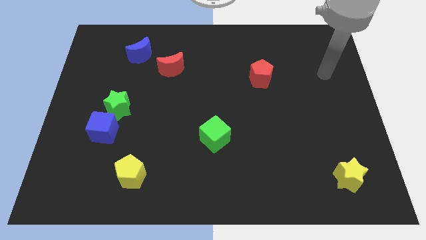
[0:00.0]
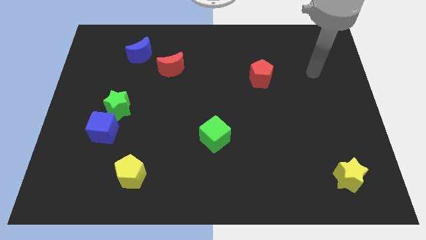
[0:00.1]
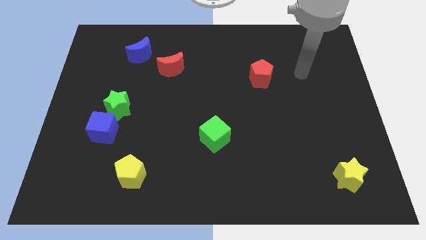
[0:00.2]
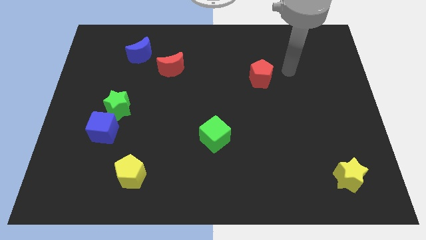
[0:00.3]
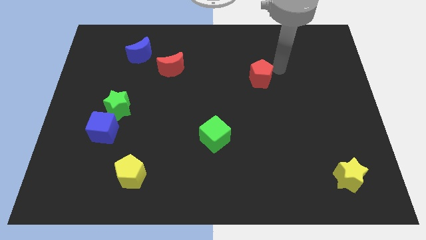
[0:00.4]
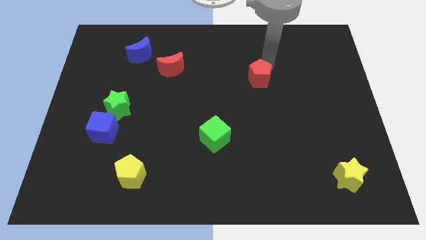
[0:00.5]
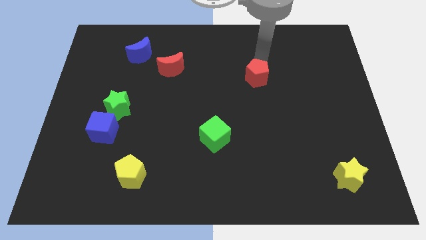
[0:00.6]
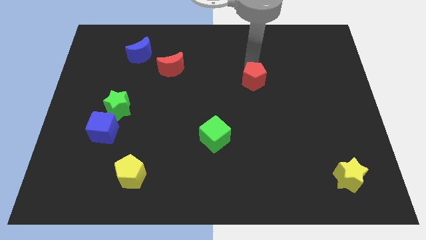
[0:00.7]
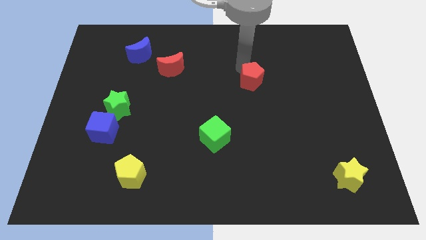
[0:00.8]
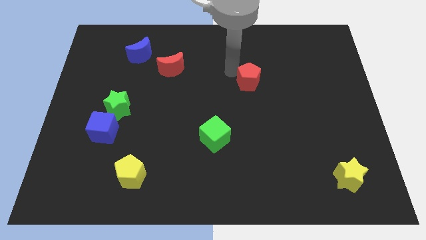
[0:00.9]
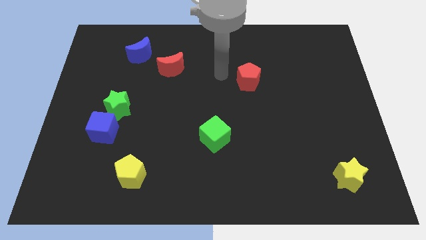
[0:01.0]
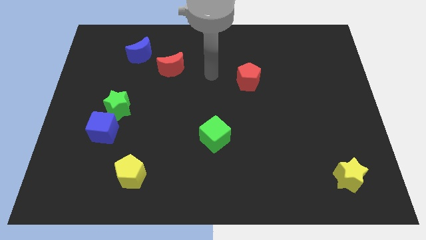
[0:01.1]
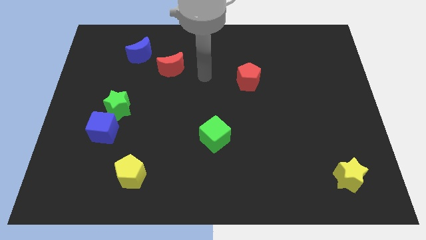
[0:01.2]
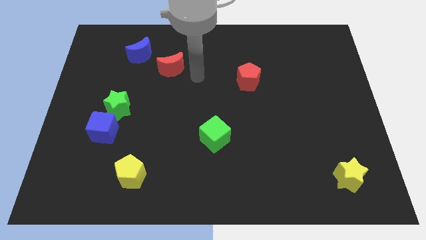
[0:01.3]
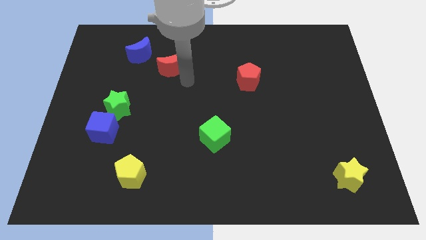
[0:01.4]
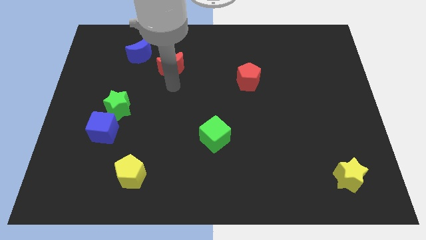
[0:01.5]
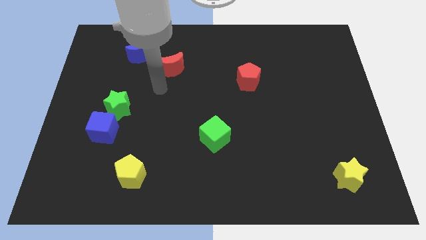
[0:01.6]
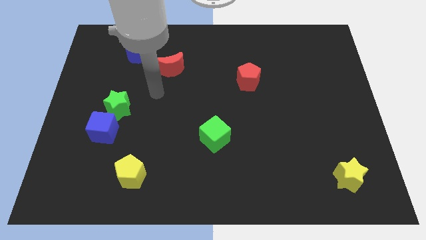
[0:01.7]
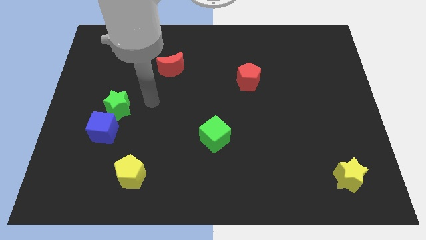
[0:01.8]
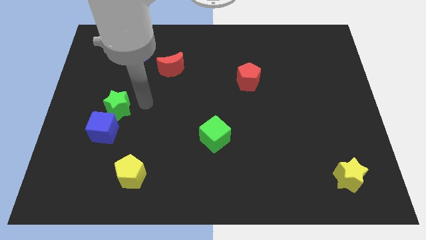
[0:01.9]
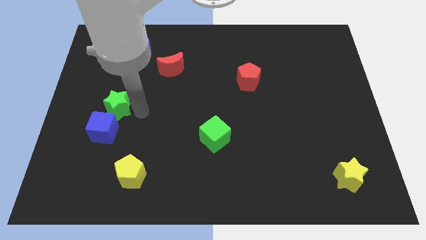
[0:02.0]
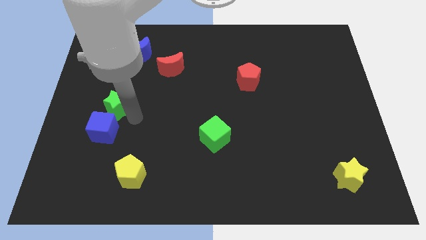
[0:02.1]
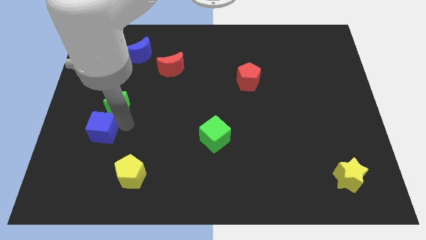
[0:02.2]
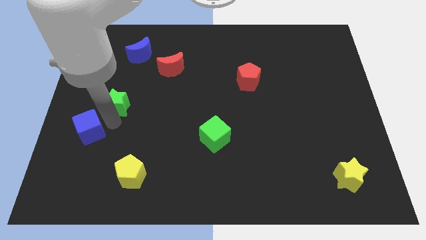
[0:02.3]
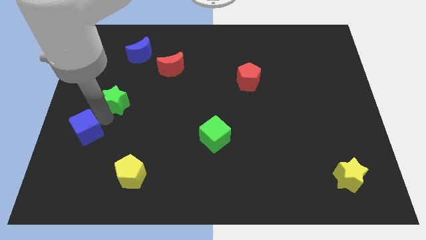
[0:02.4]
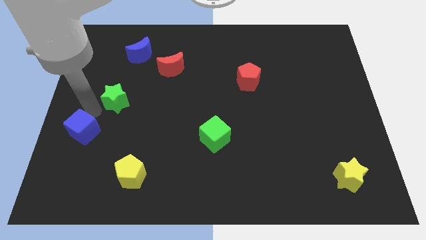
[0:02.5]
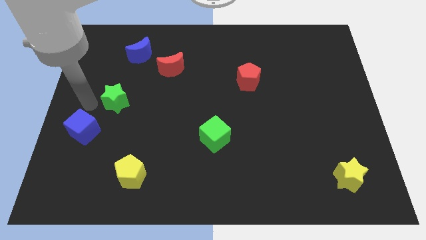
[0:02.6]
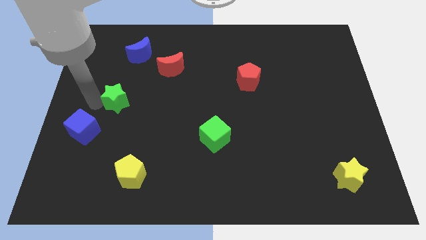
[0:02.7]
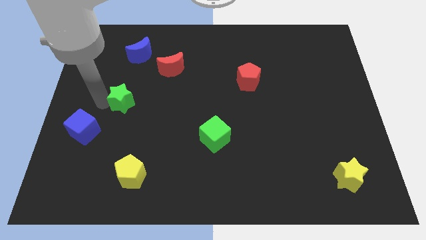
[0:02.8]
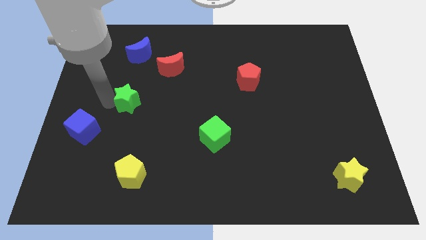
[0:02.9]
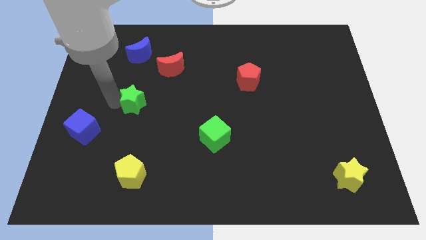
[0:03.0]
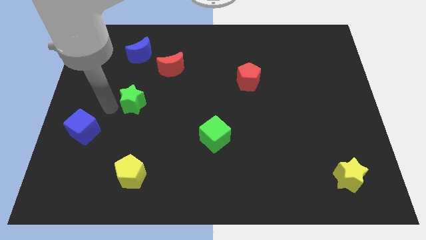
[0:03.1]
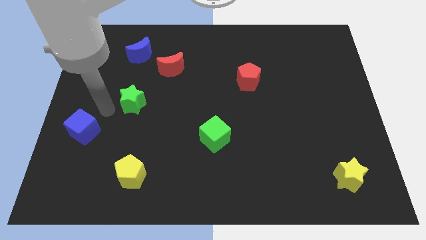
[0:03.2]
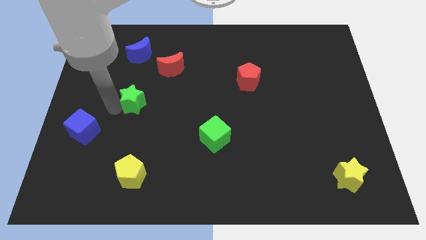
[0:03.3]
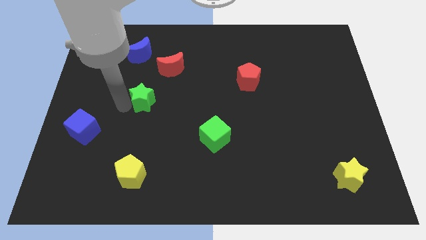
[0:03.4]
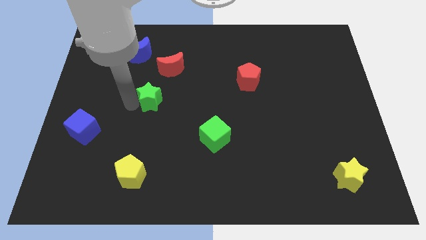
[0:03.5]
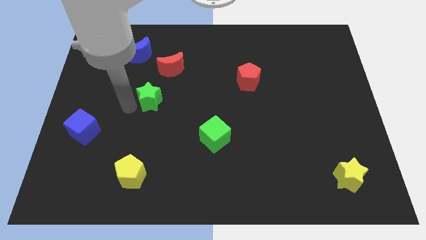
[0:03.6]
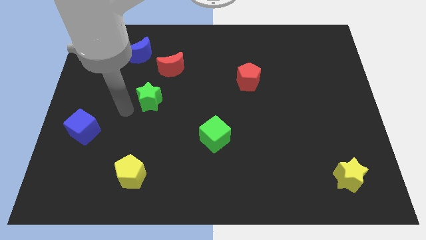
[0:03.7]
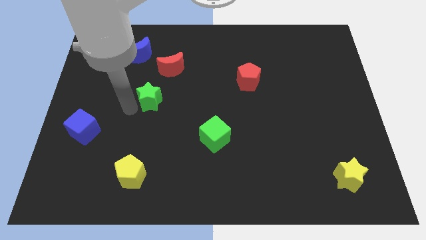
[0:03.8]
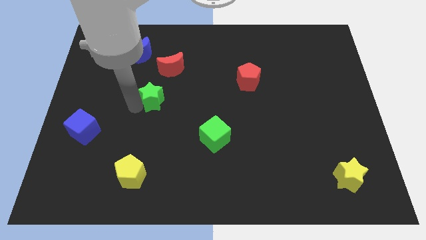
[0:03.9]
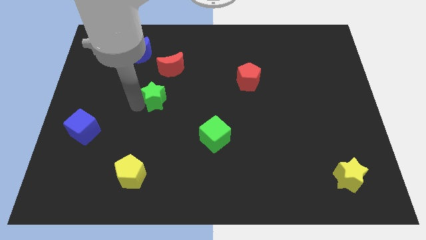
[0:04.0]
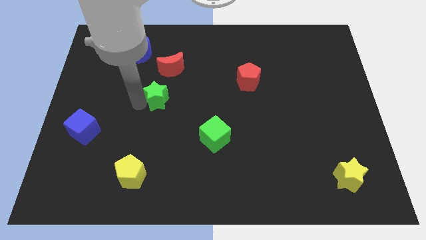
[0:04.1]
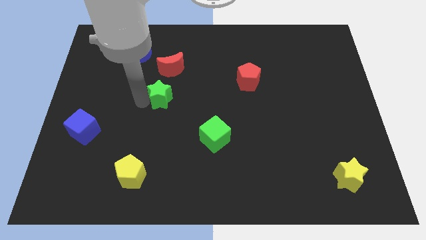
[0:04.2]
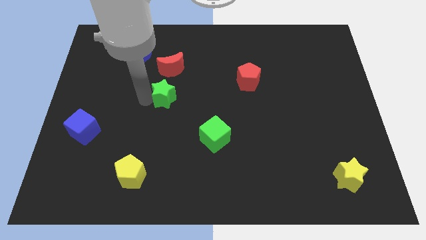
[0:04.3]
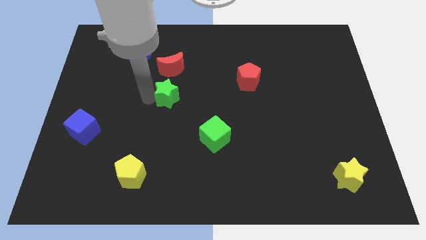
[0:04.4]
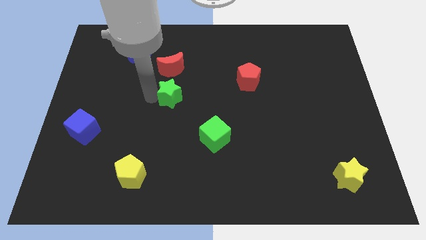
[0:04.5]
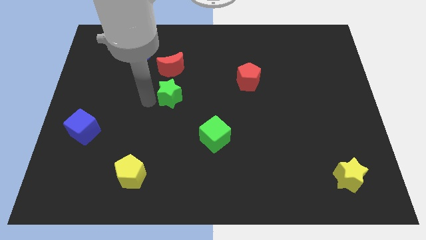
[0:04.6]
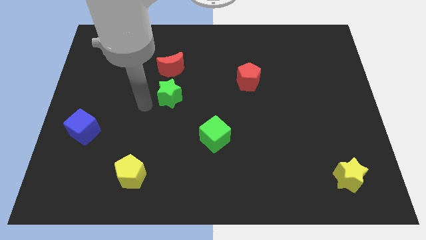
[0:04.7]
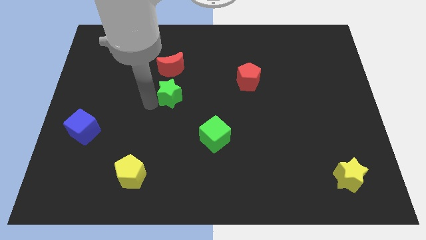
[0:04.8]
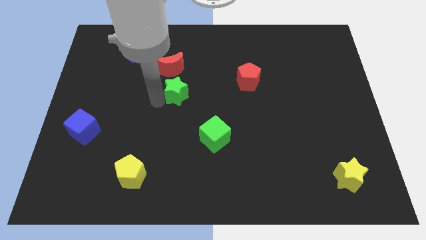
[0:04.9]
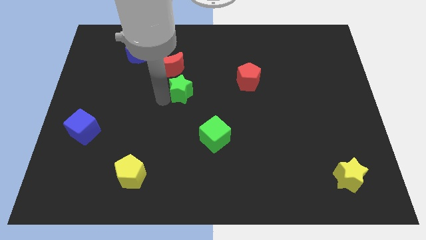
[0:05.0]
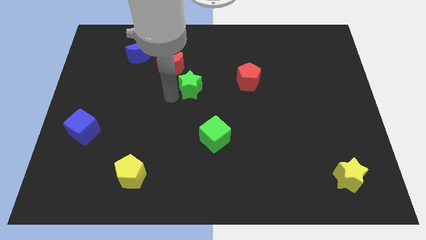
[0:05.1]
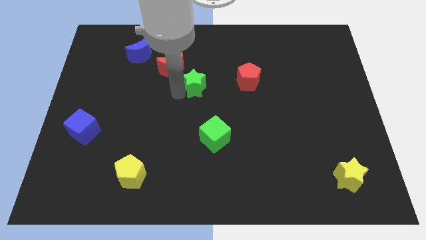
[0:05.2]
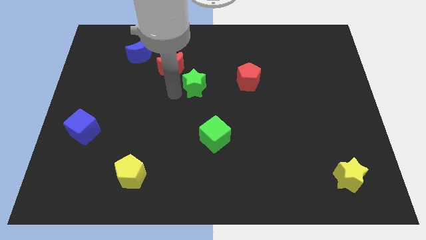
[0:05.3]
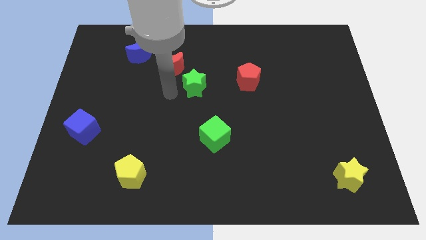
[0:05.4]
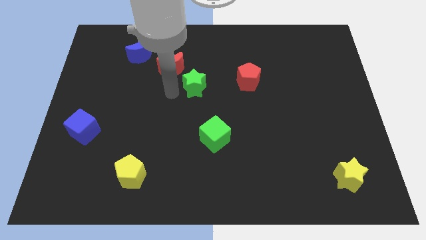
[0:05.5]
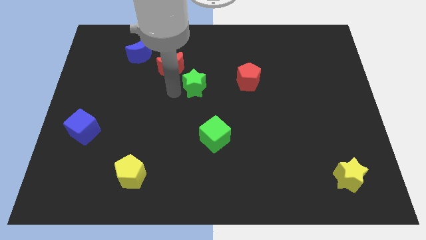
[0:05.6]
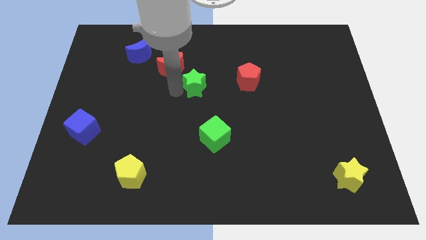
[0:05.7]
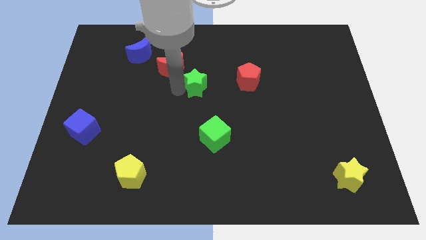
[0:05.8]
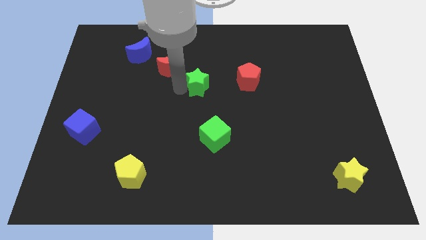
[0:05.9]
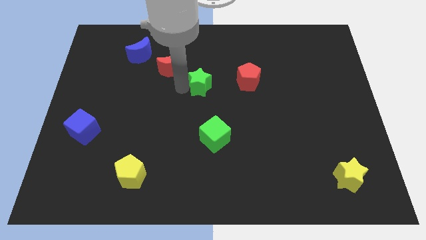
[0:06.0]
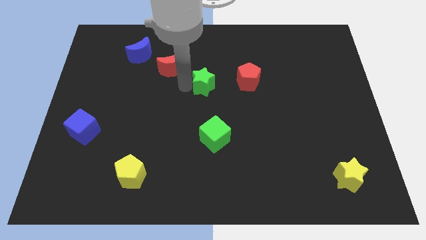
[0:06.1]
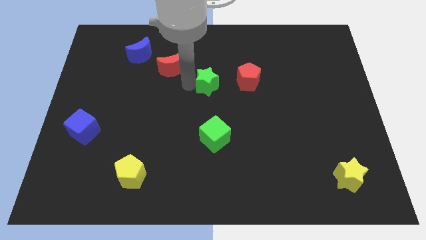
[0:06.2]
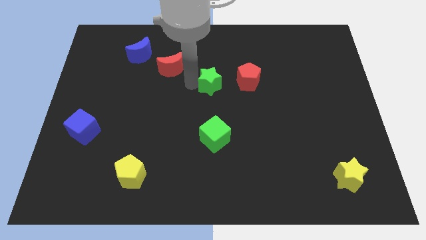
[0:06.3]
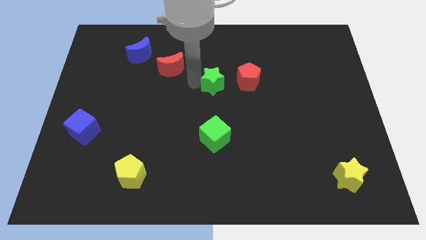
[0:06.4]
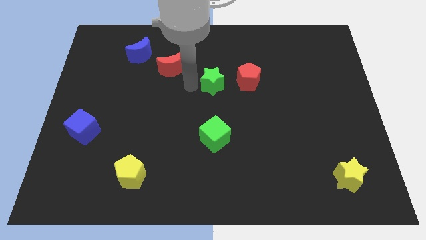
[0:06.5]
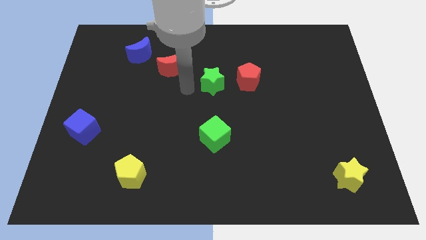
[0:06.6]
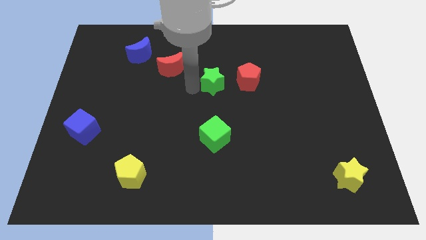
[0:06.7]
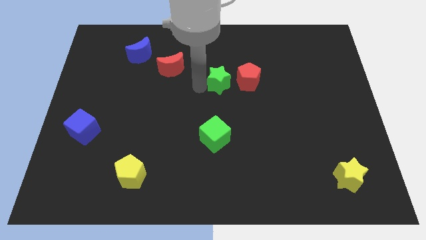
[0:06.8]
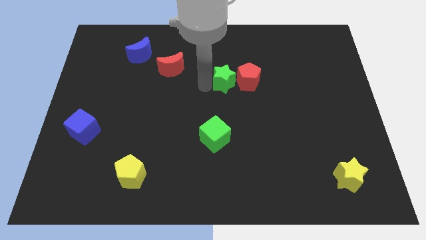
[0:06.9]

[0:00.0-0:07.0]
slide the green star close to the red pentagon

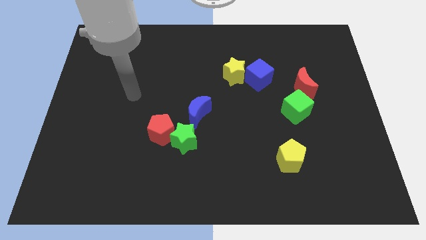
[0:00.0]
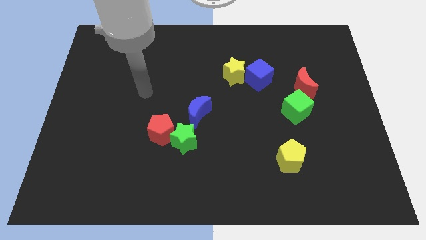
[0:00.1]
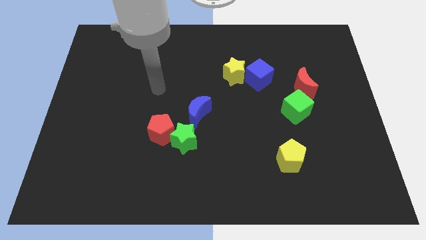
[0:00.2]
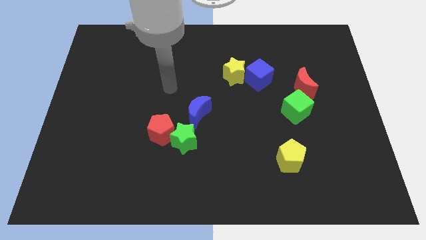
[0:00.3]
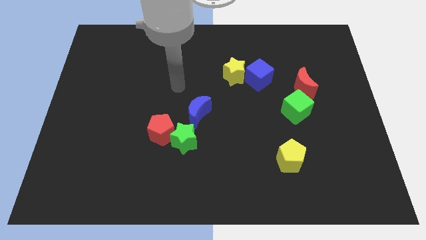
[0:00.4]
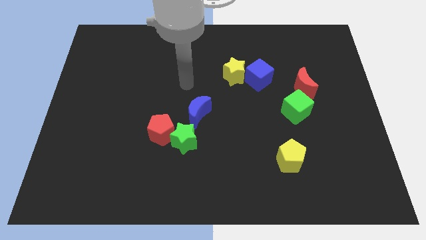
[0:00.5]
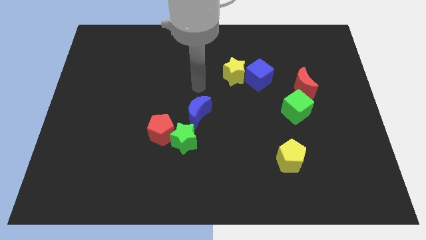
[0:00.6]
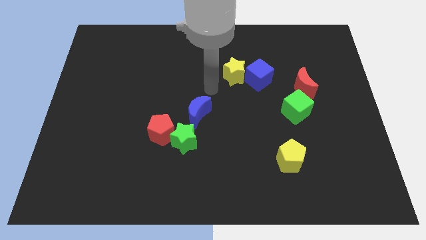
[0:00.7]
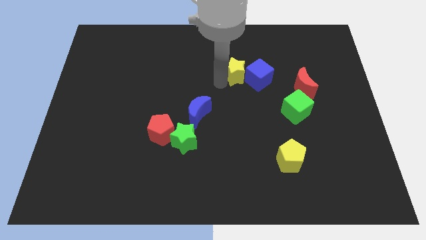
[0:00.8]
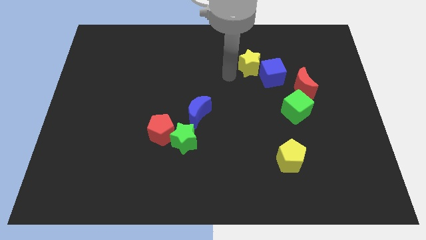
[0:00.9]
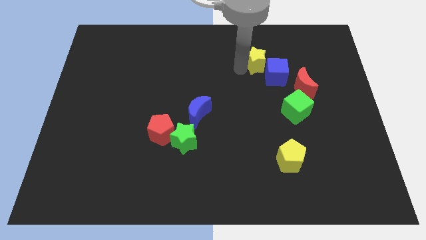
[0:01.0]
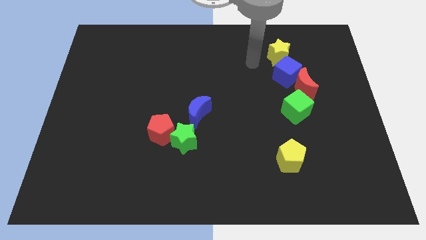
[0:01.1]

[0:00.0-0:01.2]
push the blue cube next to the red moon
